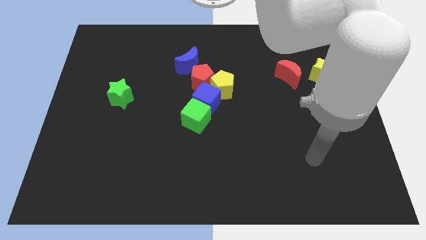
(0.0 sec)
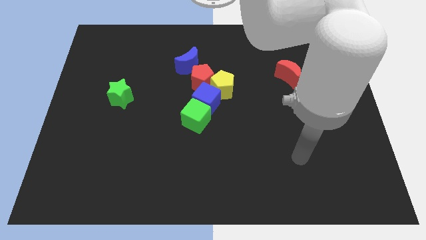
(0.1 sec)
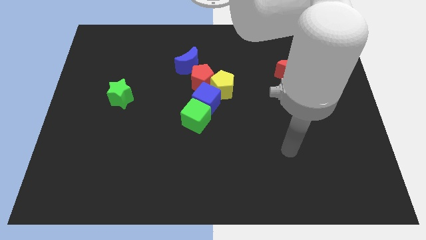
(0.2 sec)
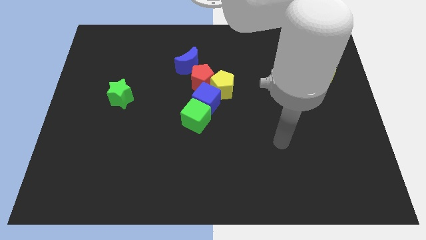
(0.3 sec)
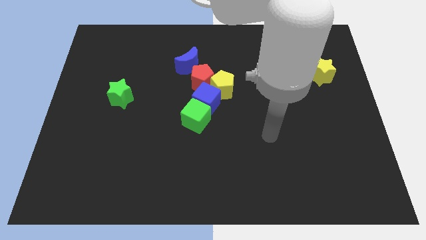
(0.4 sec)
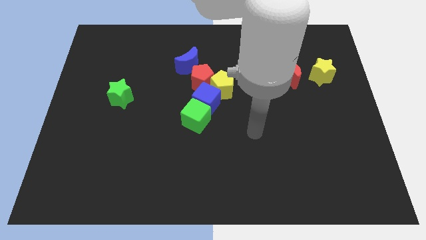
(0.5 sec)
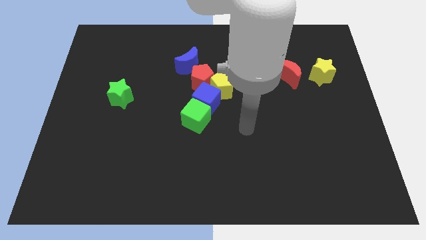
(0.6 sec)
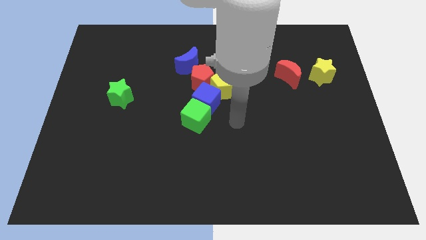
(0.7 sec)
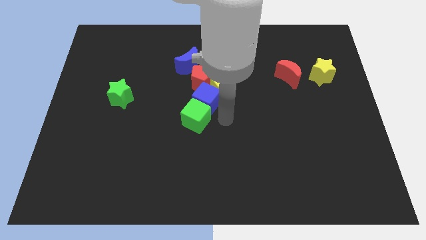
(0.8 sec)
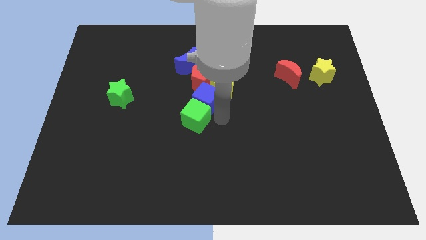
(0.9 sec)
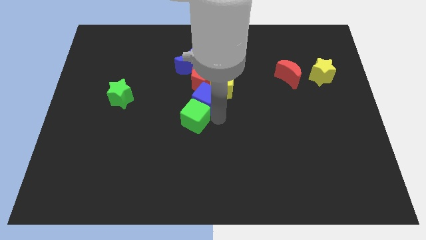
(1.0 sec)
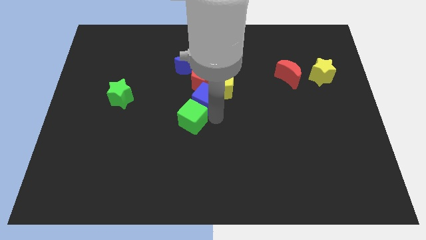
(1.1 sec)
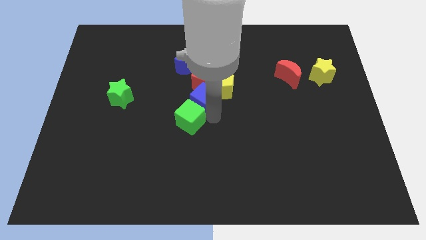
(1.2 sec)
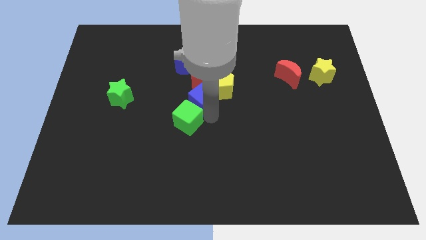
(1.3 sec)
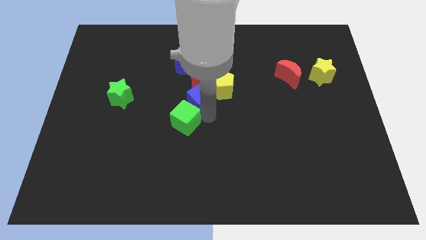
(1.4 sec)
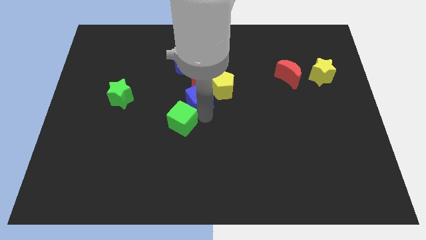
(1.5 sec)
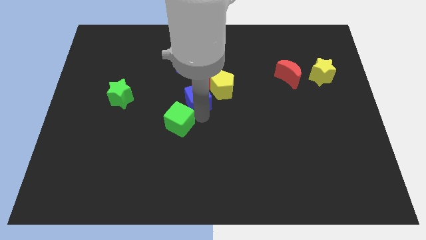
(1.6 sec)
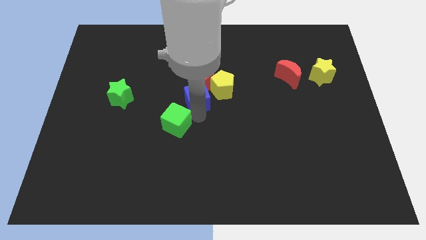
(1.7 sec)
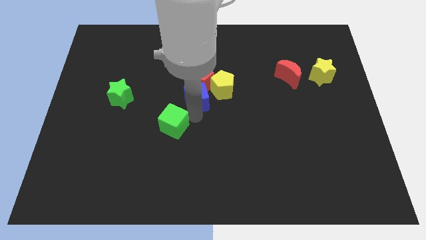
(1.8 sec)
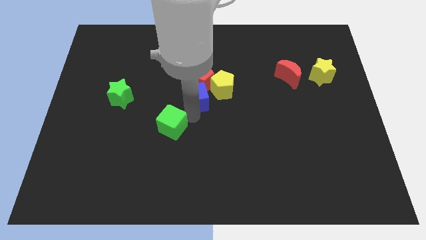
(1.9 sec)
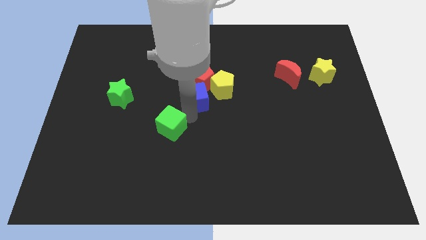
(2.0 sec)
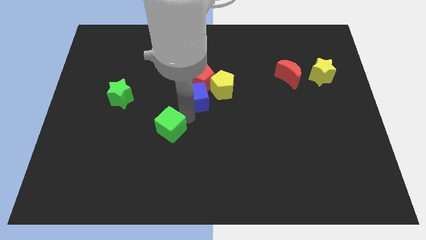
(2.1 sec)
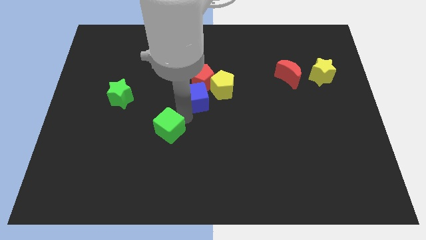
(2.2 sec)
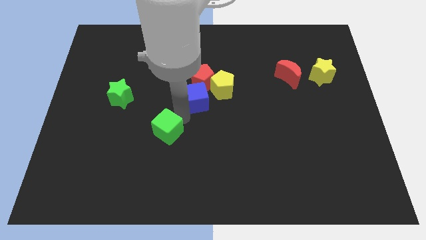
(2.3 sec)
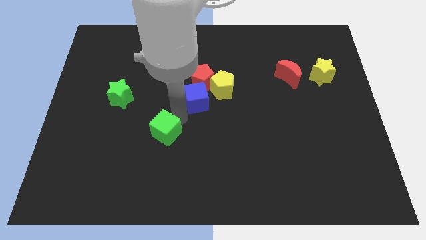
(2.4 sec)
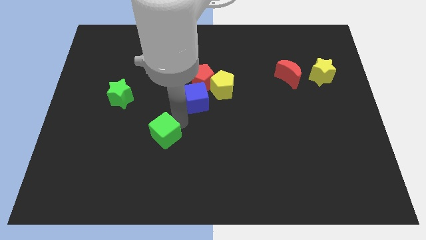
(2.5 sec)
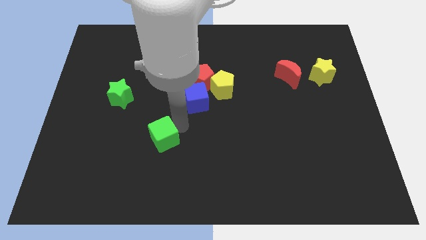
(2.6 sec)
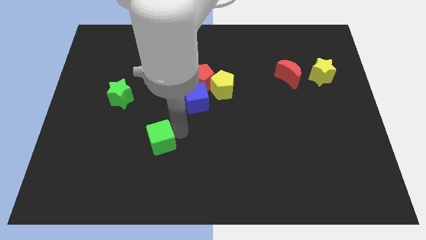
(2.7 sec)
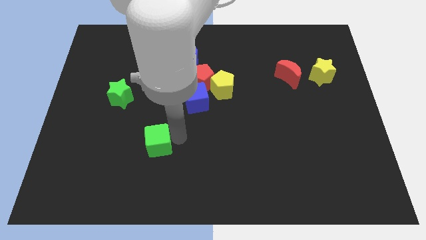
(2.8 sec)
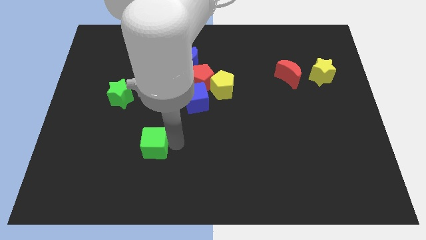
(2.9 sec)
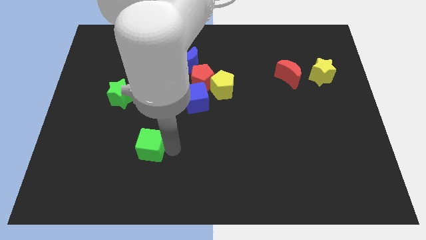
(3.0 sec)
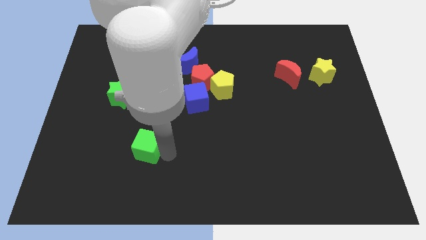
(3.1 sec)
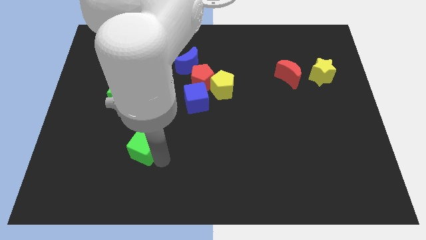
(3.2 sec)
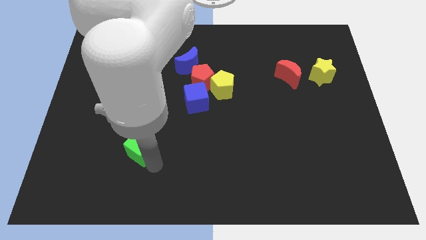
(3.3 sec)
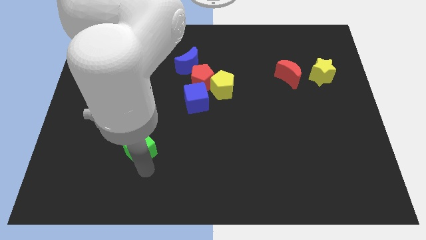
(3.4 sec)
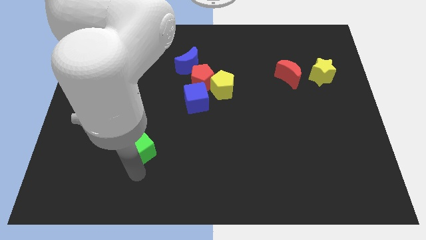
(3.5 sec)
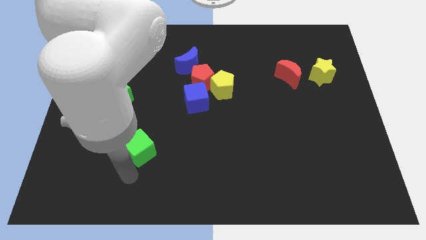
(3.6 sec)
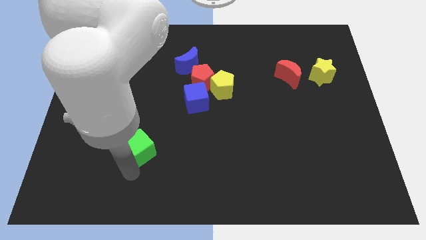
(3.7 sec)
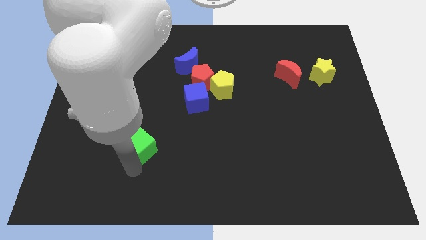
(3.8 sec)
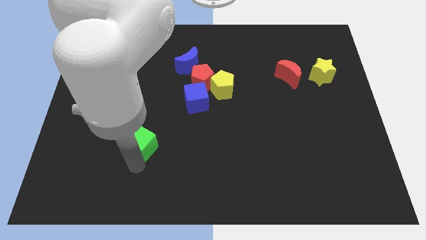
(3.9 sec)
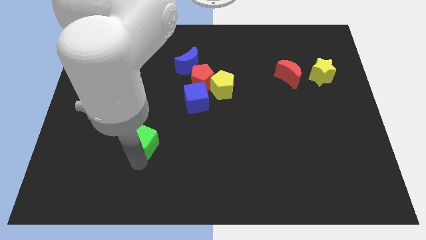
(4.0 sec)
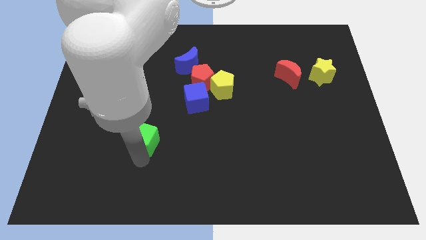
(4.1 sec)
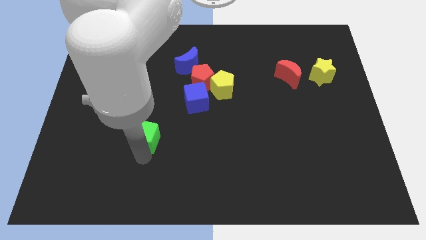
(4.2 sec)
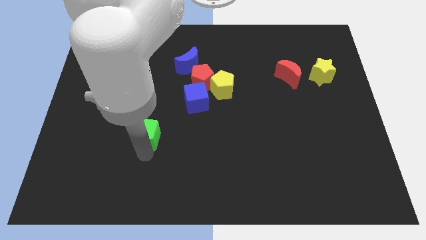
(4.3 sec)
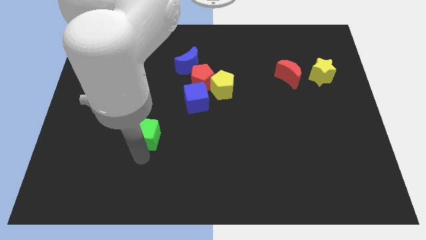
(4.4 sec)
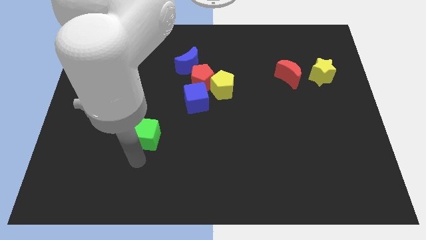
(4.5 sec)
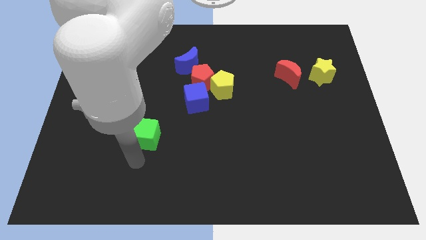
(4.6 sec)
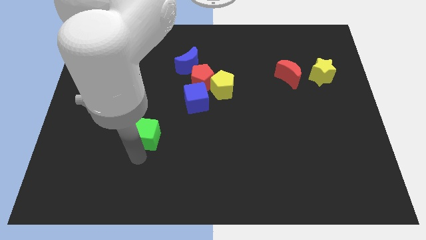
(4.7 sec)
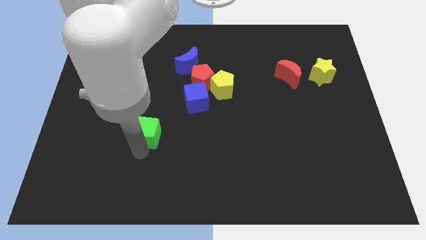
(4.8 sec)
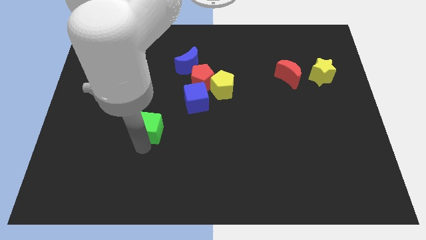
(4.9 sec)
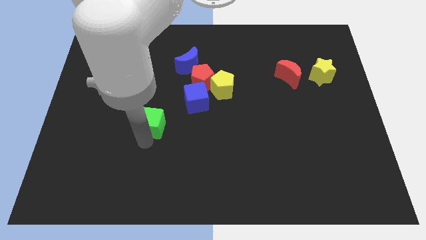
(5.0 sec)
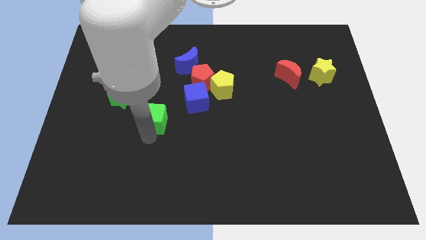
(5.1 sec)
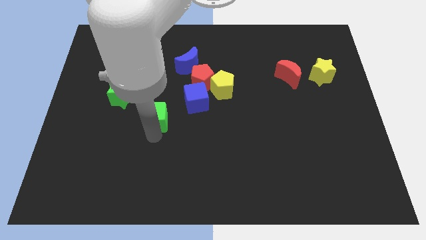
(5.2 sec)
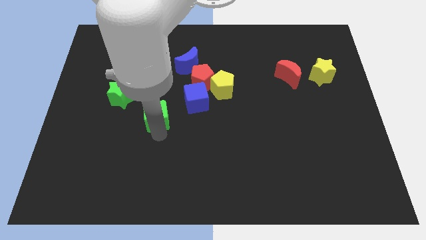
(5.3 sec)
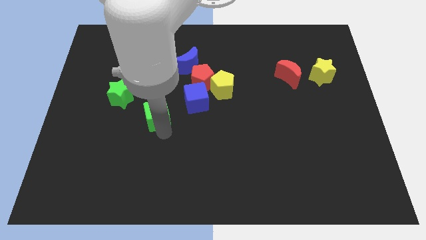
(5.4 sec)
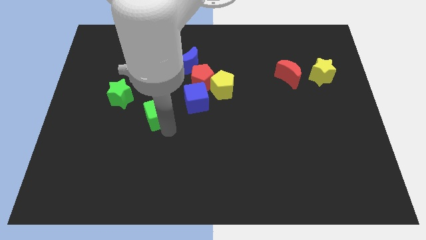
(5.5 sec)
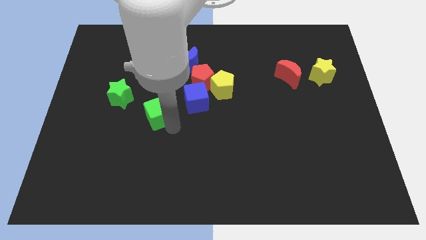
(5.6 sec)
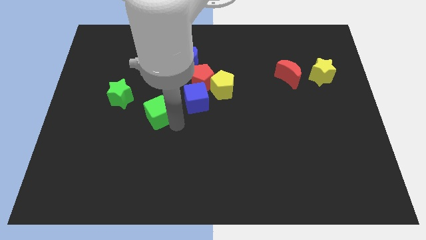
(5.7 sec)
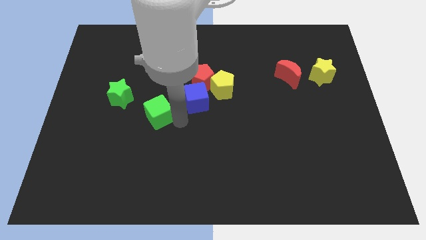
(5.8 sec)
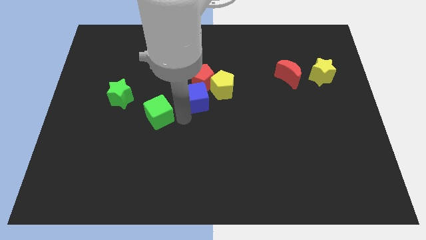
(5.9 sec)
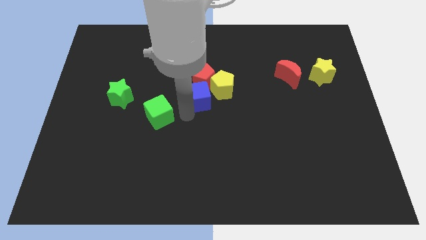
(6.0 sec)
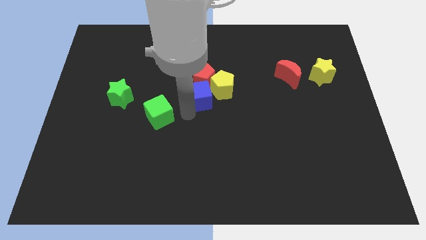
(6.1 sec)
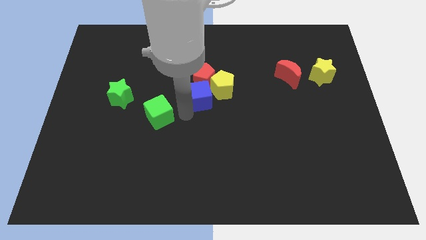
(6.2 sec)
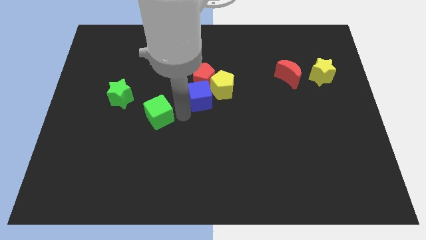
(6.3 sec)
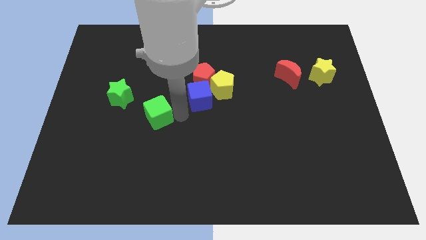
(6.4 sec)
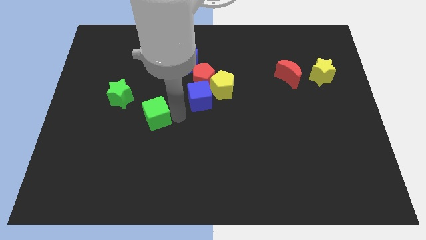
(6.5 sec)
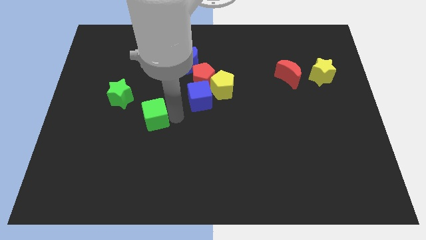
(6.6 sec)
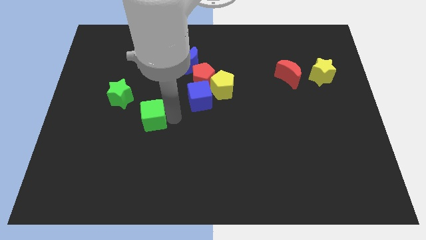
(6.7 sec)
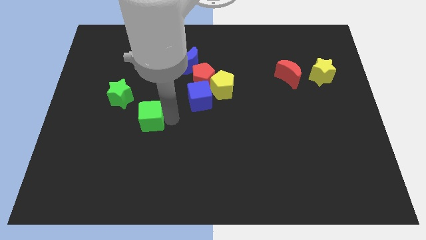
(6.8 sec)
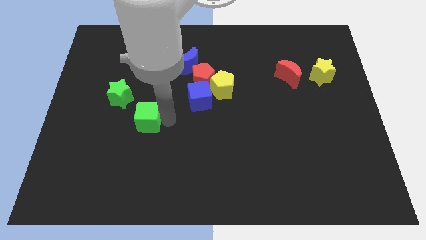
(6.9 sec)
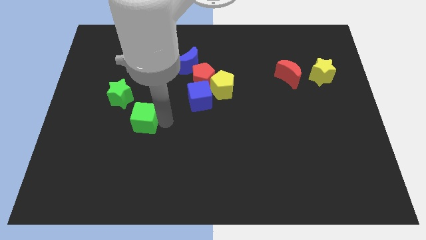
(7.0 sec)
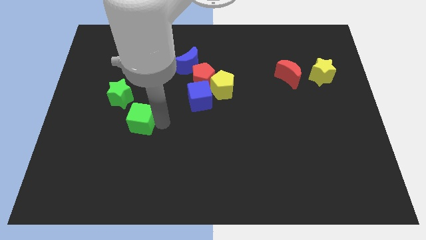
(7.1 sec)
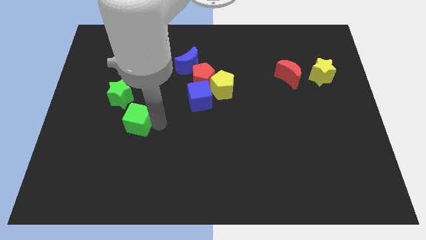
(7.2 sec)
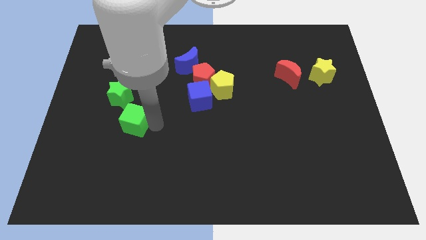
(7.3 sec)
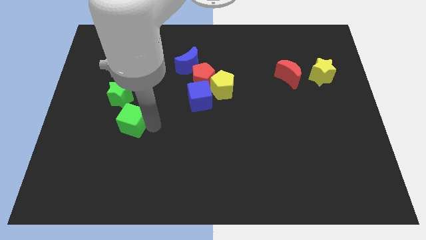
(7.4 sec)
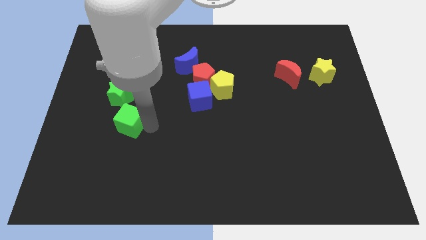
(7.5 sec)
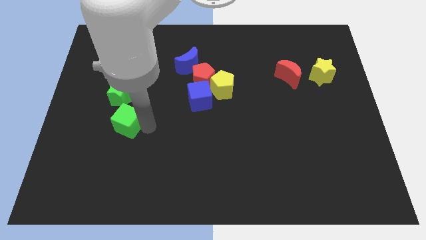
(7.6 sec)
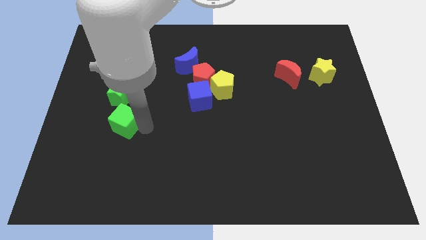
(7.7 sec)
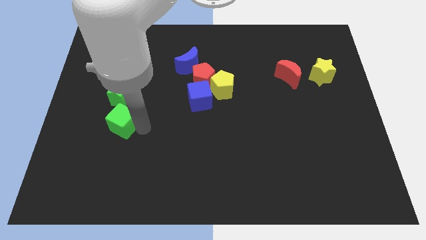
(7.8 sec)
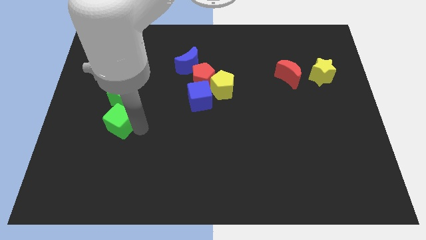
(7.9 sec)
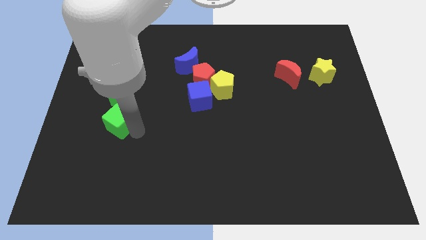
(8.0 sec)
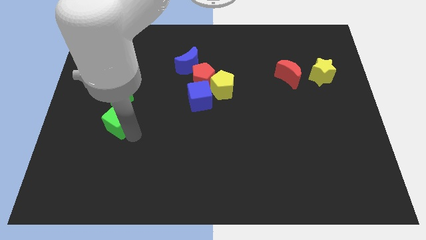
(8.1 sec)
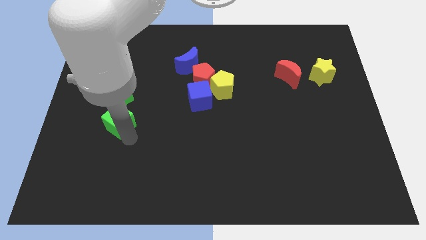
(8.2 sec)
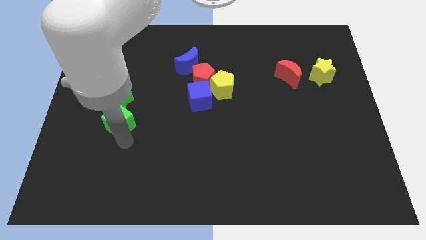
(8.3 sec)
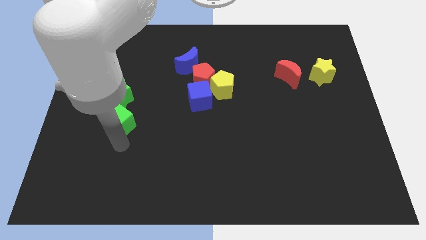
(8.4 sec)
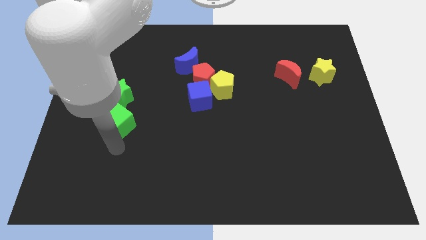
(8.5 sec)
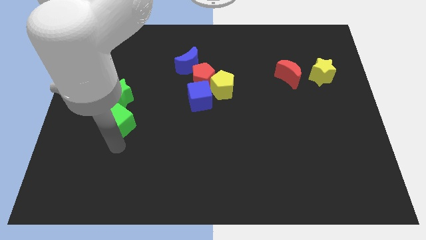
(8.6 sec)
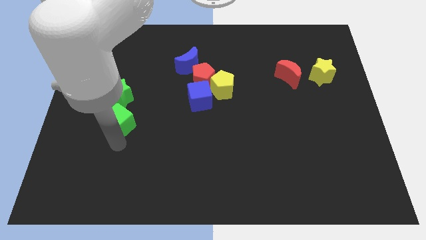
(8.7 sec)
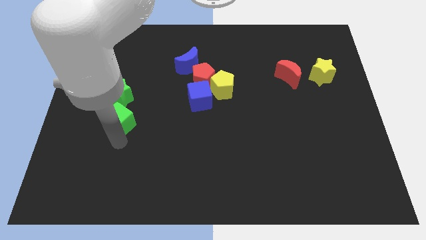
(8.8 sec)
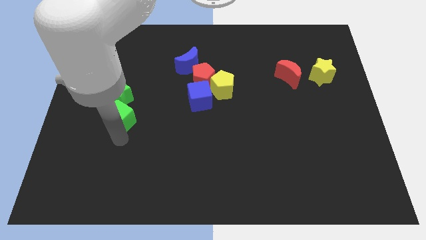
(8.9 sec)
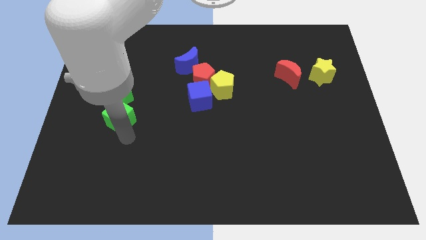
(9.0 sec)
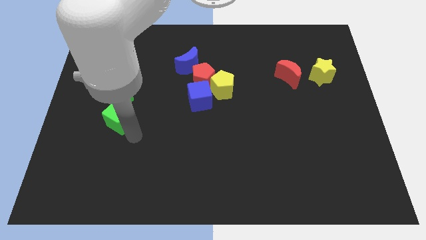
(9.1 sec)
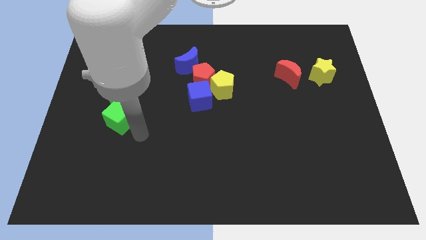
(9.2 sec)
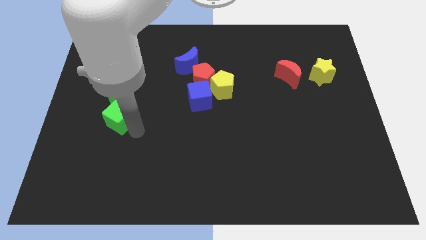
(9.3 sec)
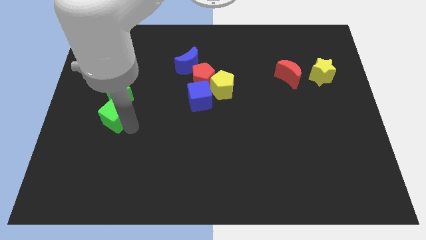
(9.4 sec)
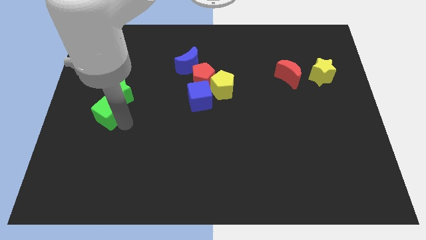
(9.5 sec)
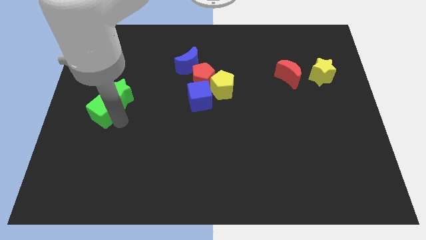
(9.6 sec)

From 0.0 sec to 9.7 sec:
push the green cube to the left side
